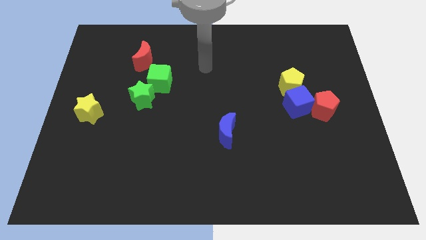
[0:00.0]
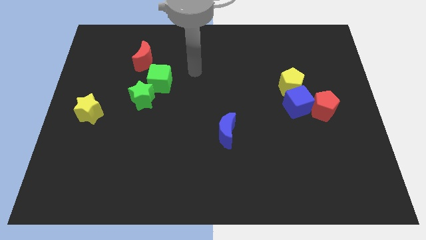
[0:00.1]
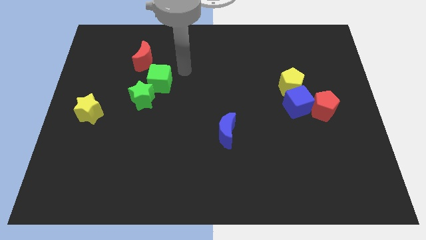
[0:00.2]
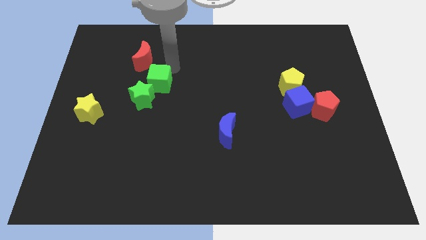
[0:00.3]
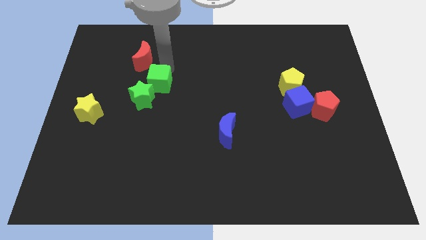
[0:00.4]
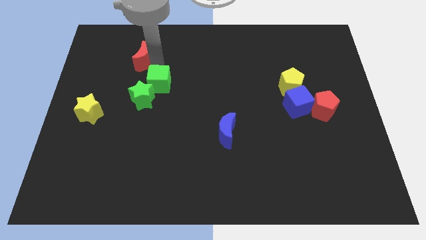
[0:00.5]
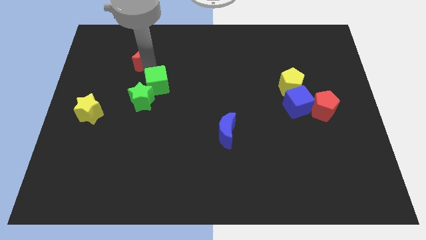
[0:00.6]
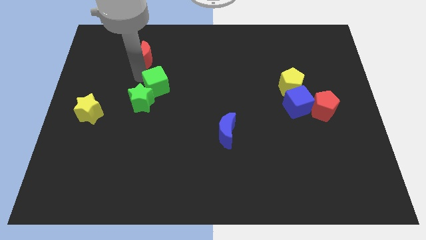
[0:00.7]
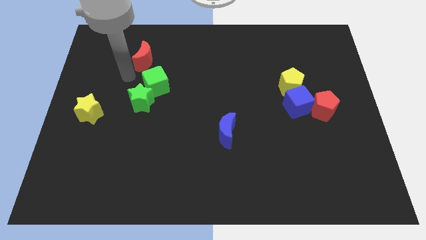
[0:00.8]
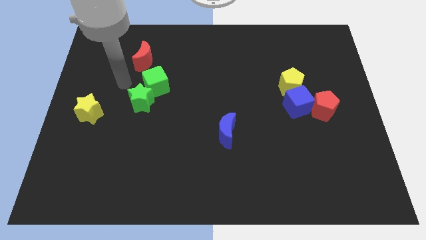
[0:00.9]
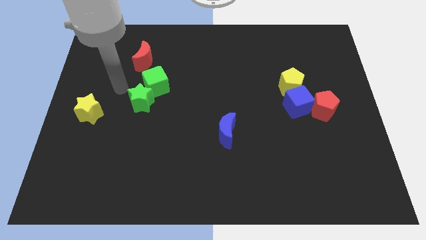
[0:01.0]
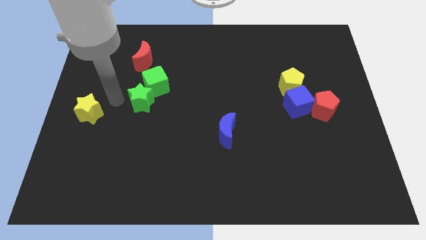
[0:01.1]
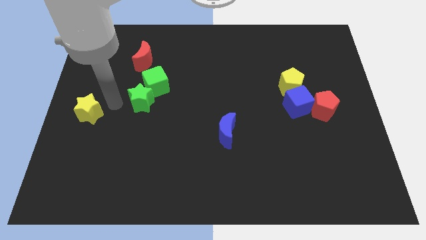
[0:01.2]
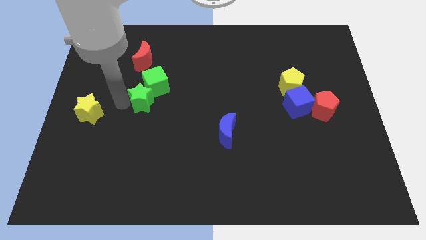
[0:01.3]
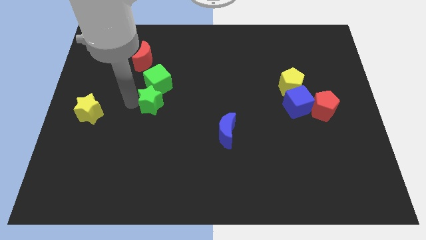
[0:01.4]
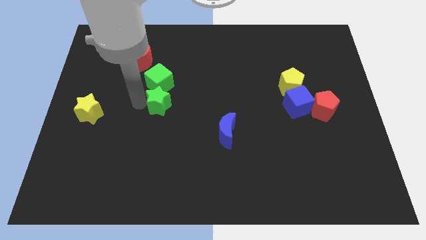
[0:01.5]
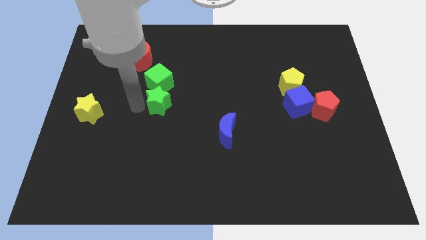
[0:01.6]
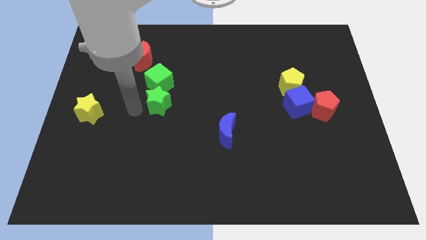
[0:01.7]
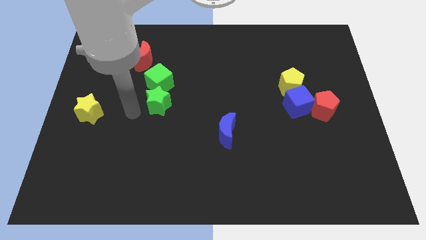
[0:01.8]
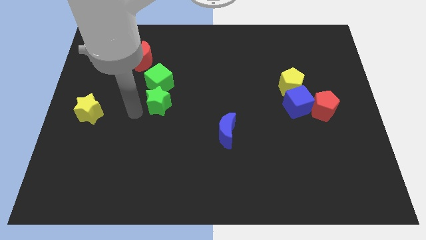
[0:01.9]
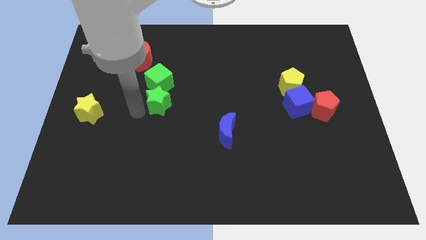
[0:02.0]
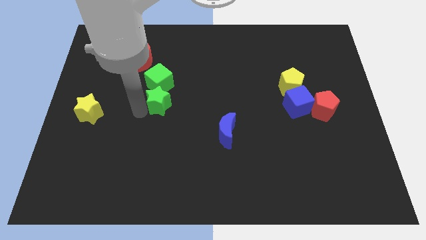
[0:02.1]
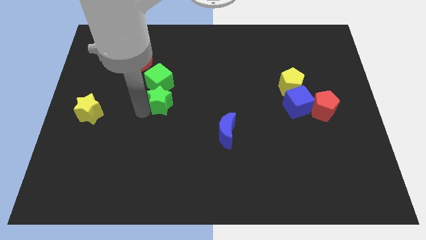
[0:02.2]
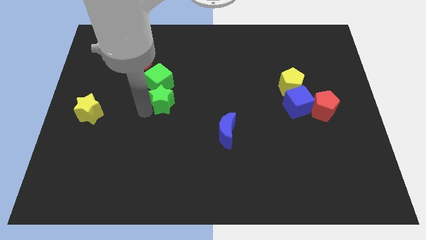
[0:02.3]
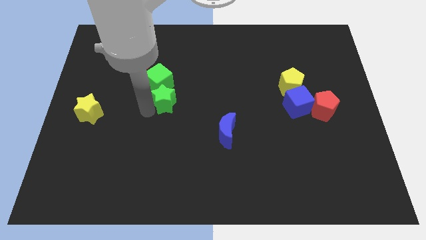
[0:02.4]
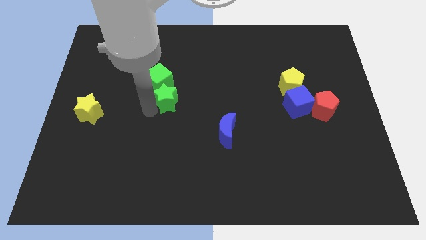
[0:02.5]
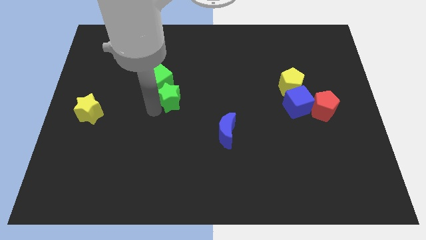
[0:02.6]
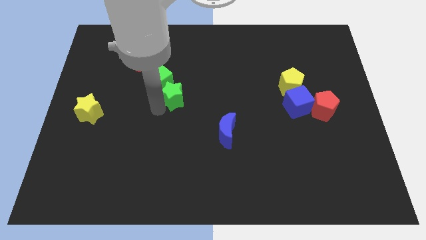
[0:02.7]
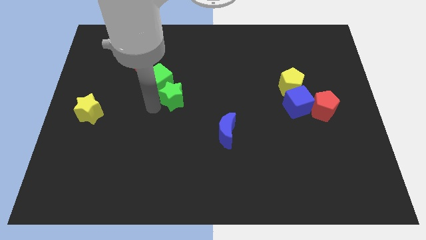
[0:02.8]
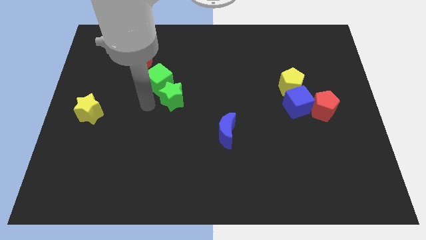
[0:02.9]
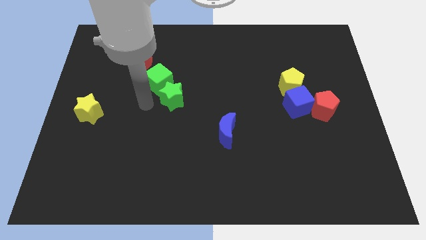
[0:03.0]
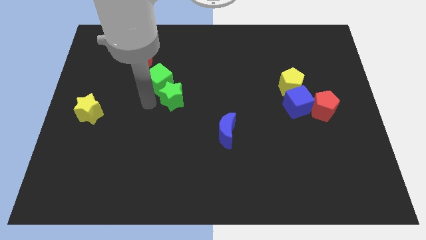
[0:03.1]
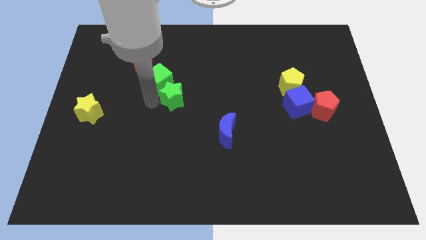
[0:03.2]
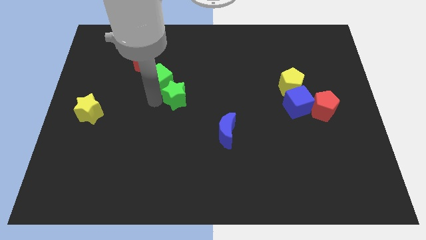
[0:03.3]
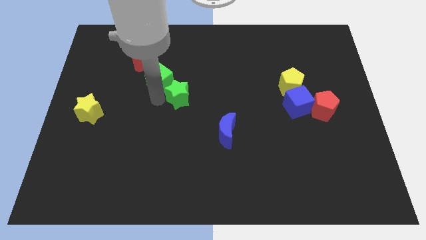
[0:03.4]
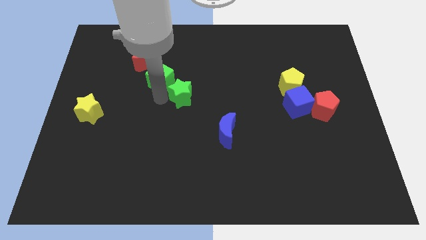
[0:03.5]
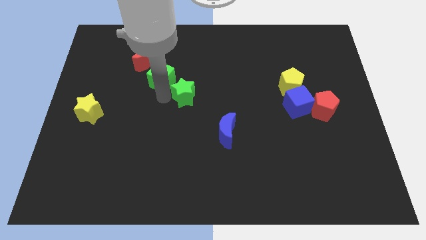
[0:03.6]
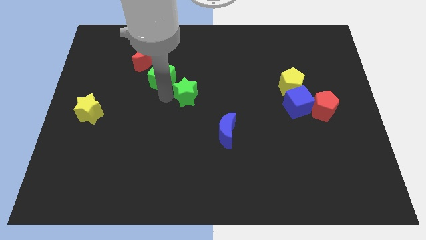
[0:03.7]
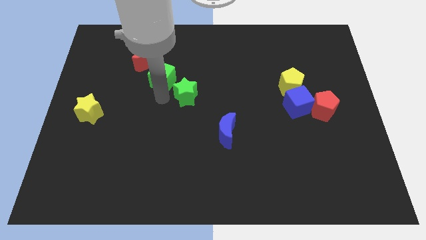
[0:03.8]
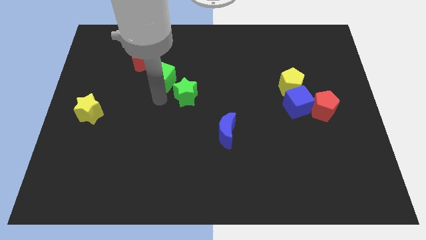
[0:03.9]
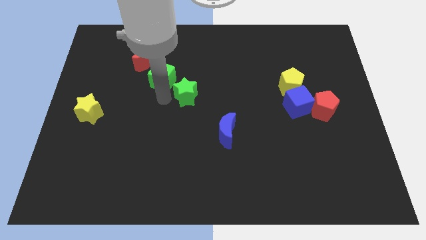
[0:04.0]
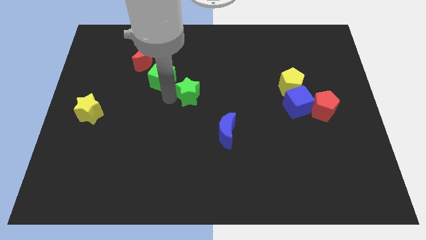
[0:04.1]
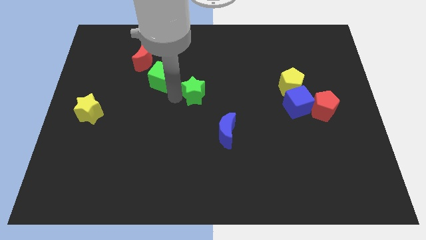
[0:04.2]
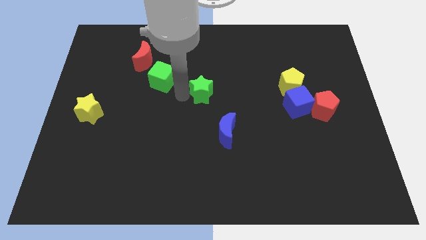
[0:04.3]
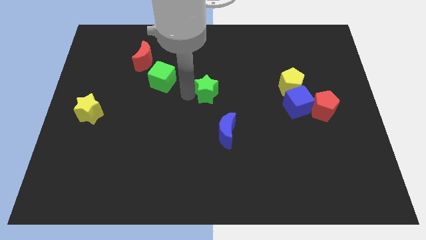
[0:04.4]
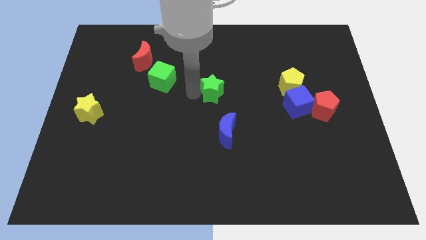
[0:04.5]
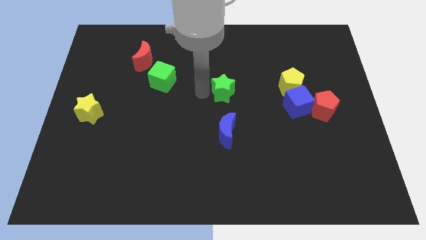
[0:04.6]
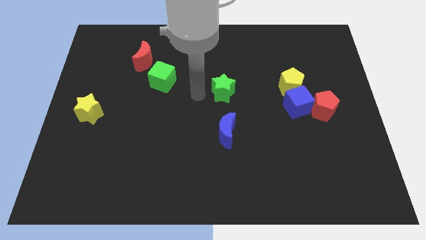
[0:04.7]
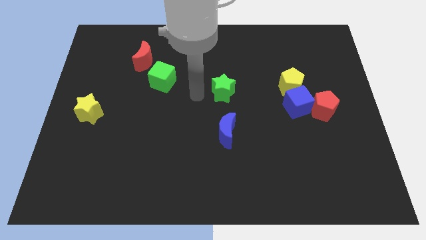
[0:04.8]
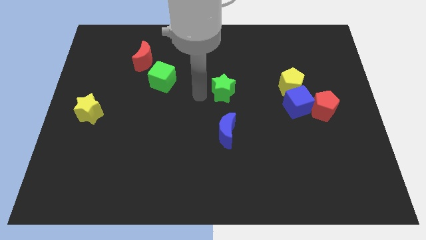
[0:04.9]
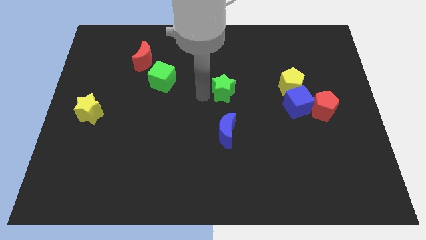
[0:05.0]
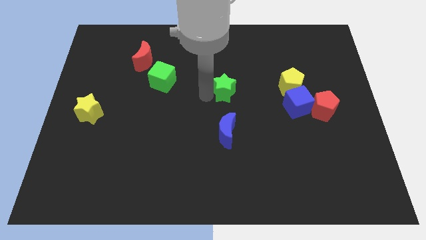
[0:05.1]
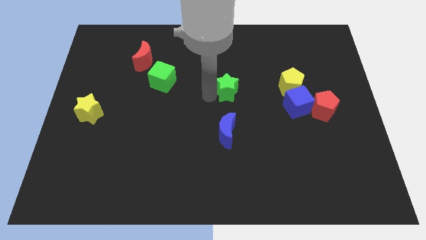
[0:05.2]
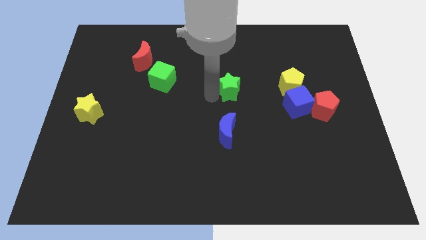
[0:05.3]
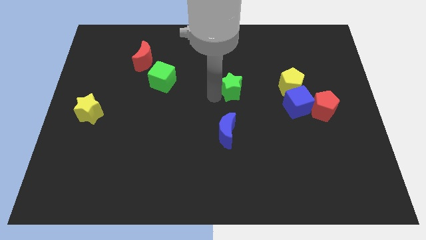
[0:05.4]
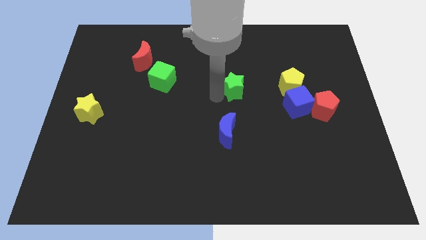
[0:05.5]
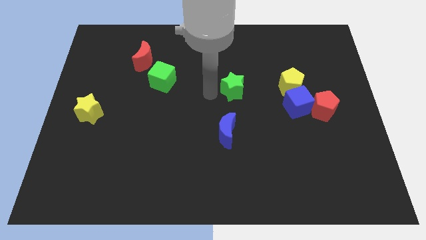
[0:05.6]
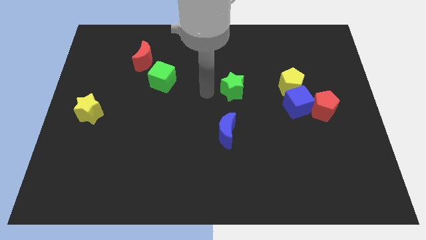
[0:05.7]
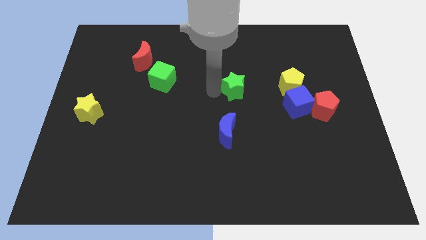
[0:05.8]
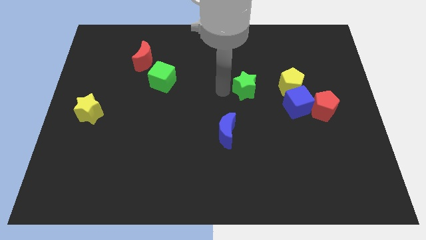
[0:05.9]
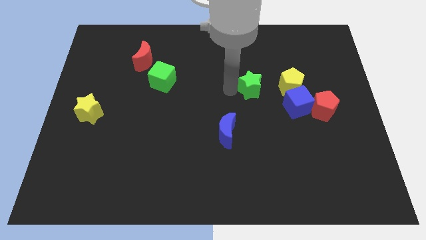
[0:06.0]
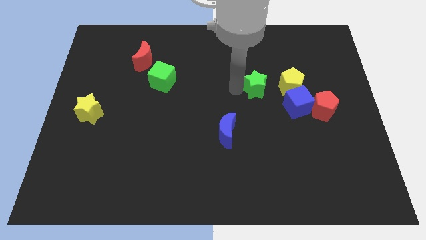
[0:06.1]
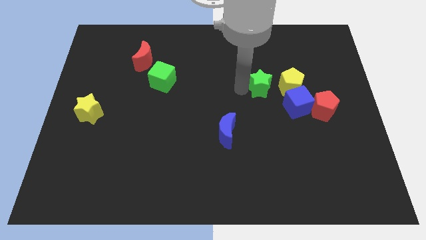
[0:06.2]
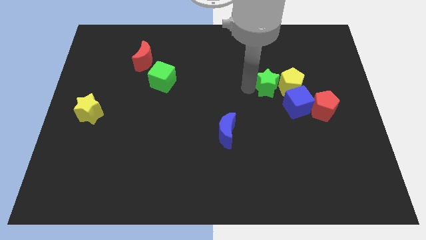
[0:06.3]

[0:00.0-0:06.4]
put the green star next to the yellow pentagon

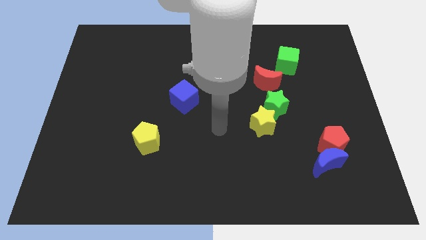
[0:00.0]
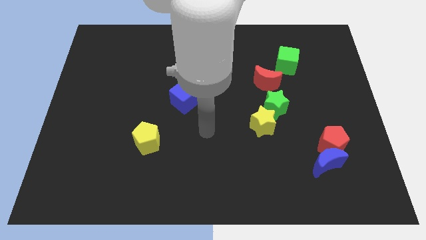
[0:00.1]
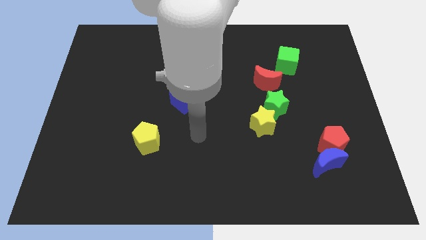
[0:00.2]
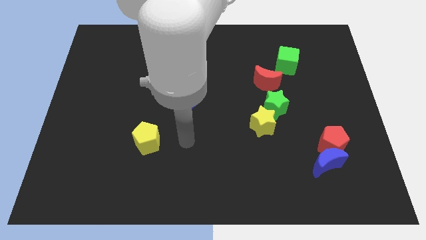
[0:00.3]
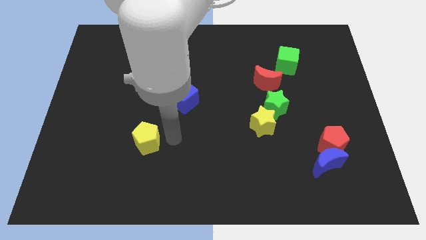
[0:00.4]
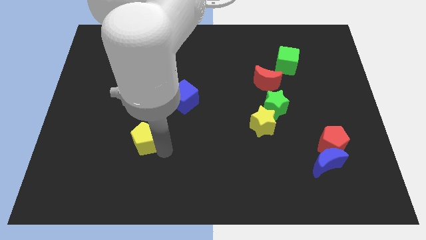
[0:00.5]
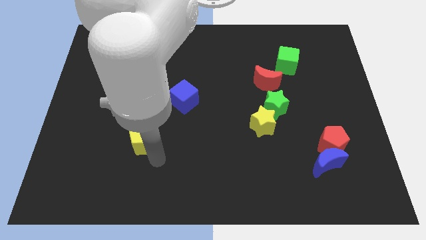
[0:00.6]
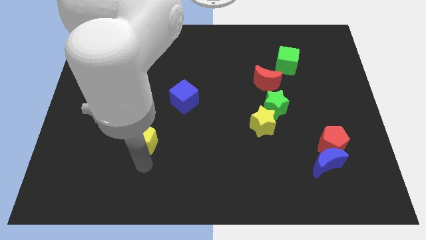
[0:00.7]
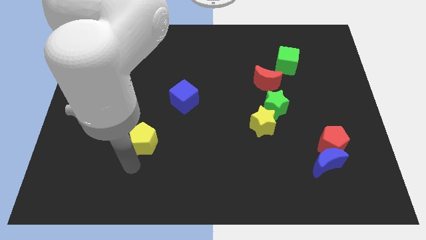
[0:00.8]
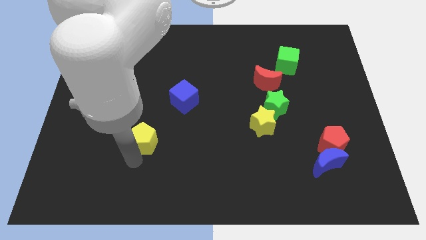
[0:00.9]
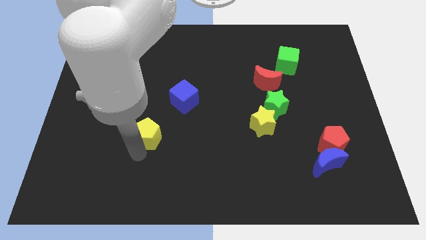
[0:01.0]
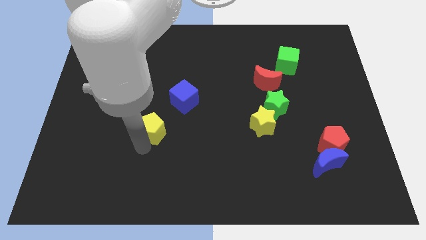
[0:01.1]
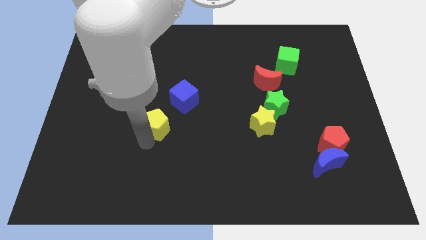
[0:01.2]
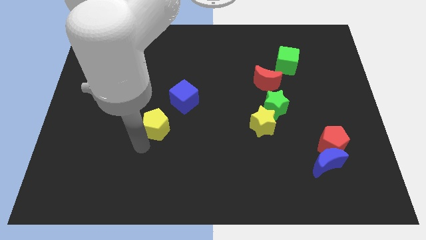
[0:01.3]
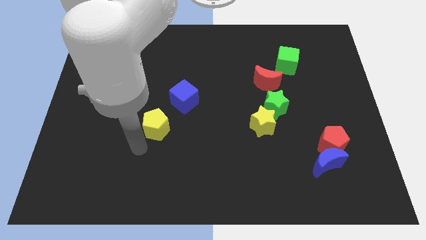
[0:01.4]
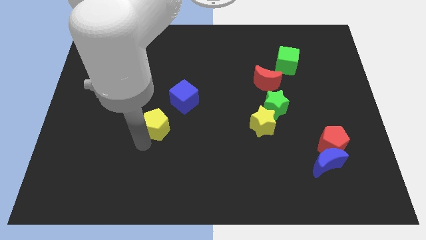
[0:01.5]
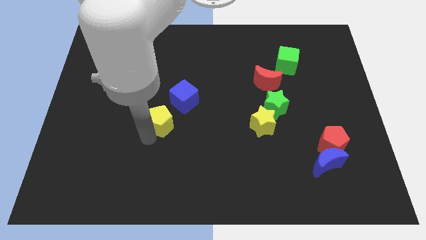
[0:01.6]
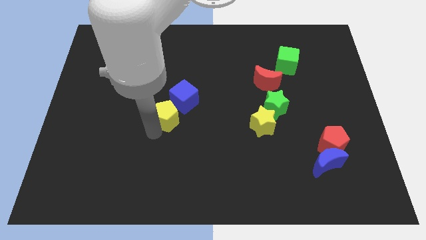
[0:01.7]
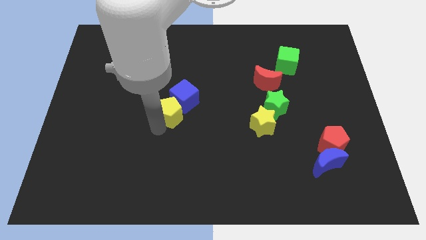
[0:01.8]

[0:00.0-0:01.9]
move the yellow pentagon close to the blue cube
